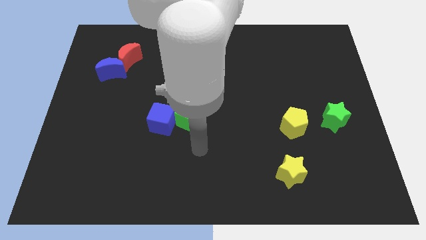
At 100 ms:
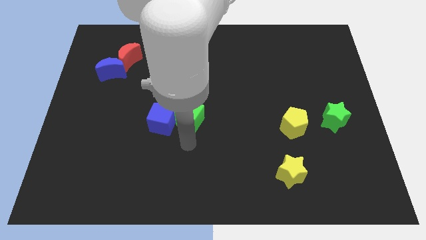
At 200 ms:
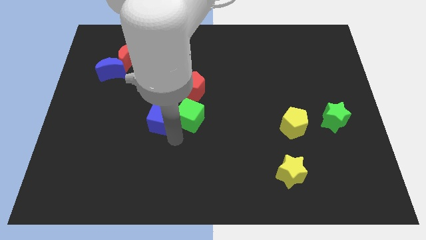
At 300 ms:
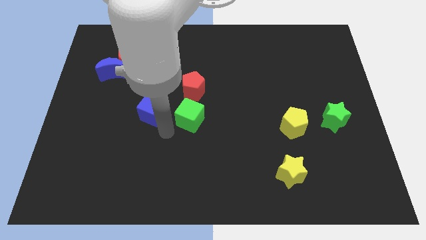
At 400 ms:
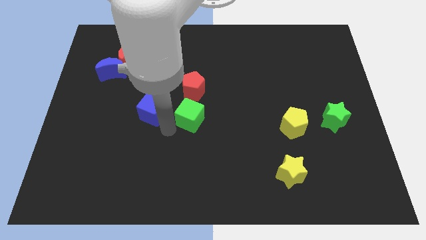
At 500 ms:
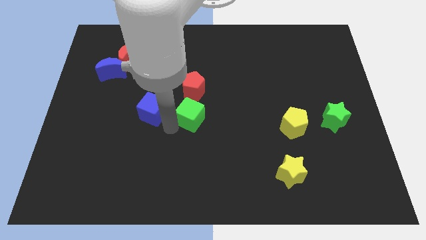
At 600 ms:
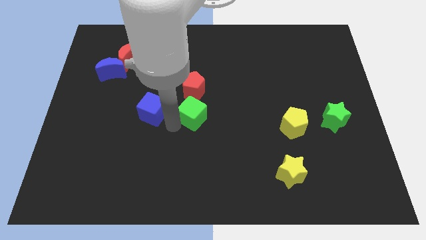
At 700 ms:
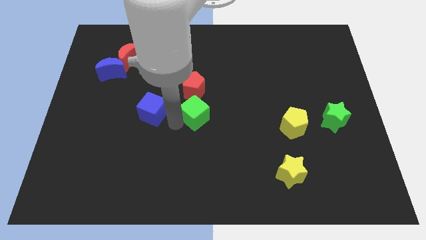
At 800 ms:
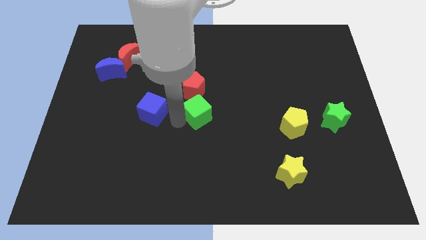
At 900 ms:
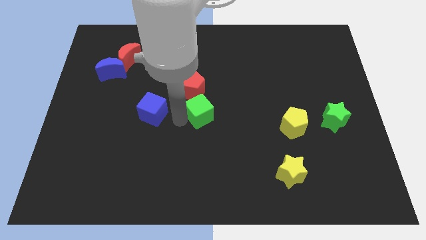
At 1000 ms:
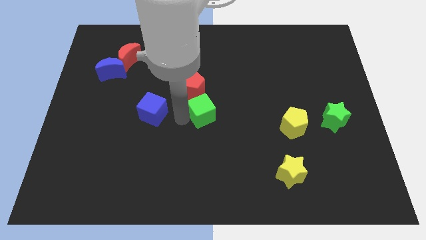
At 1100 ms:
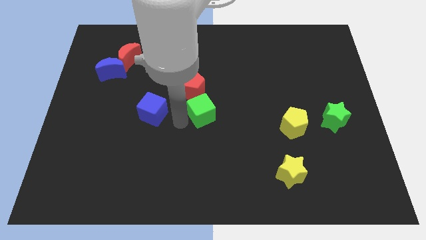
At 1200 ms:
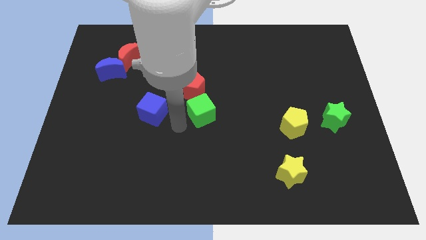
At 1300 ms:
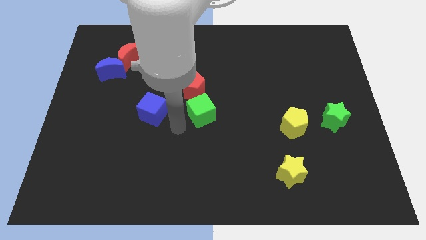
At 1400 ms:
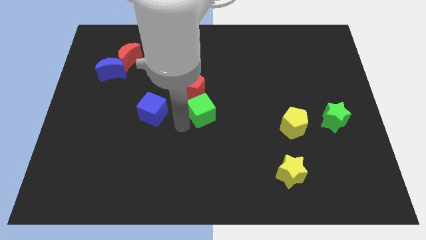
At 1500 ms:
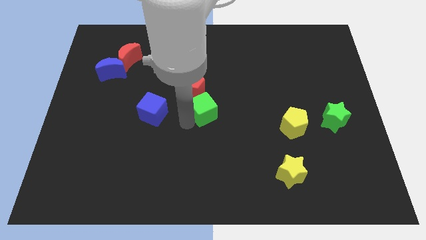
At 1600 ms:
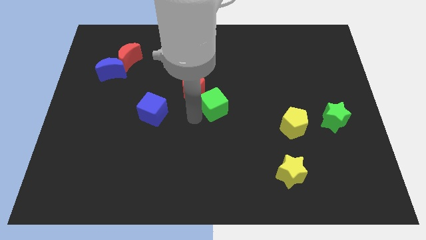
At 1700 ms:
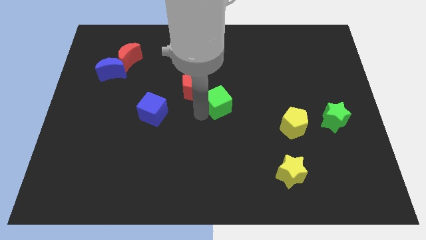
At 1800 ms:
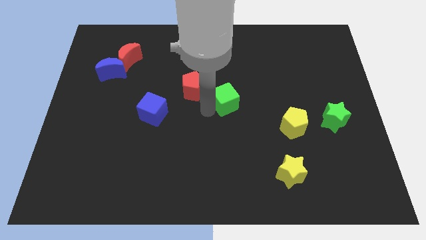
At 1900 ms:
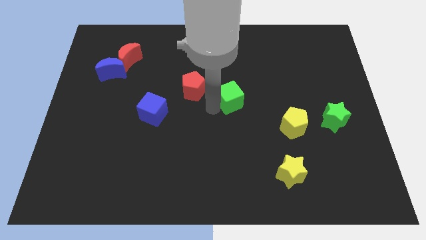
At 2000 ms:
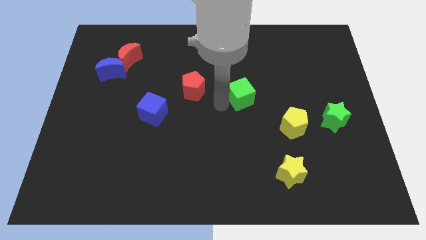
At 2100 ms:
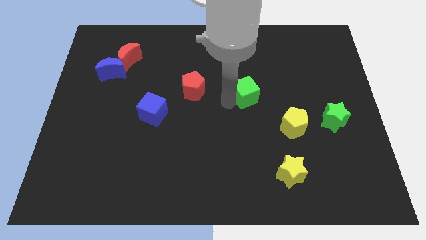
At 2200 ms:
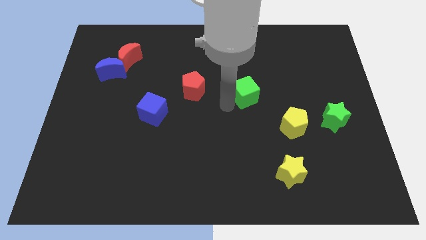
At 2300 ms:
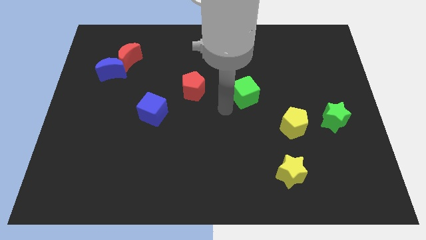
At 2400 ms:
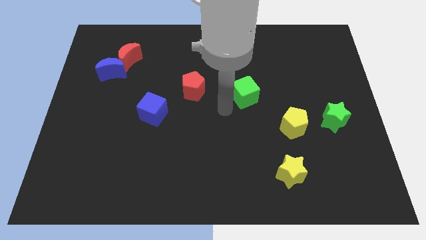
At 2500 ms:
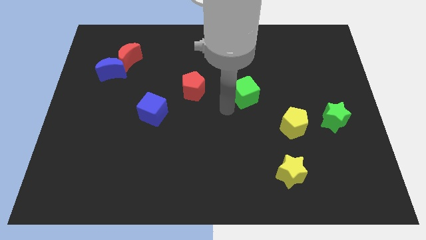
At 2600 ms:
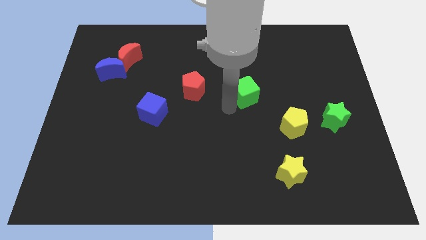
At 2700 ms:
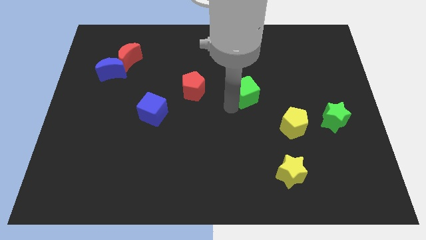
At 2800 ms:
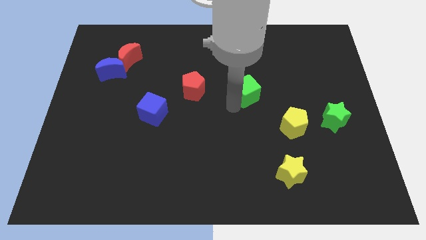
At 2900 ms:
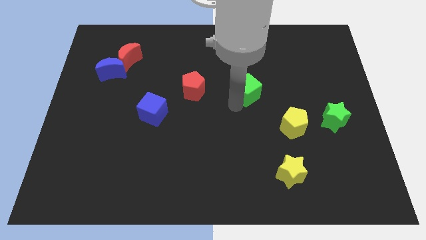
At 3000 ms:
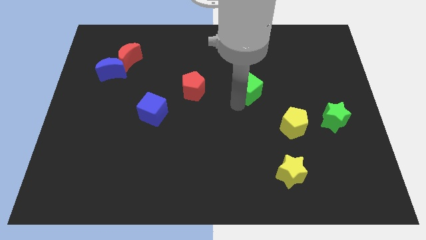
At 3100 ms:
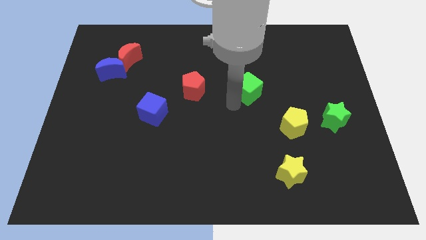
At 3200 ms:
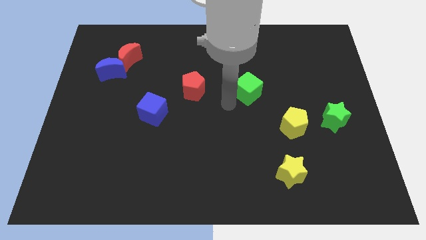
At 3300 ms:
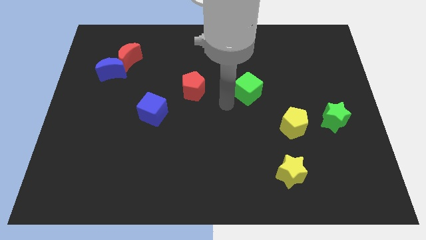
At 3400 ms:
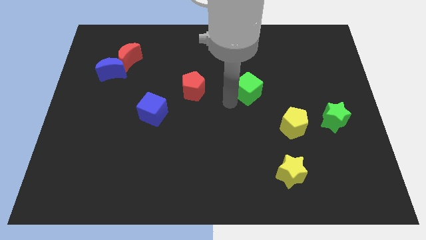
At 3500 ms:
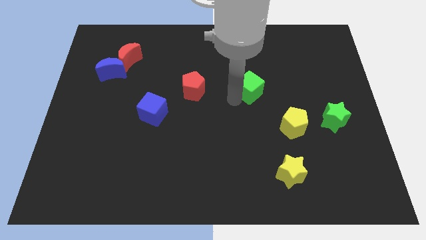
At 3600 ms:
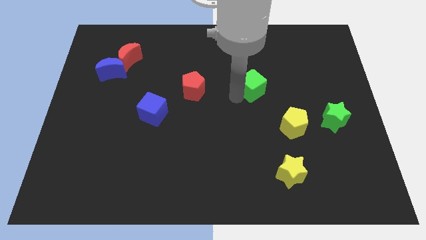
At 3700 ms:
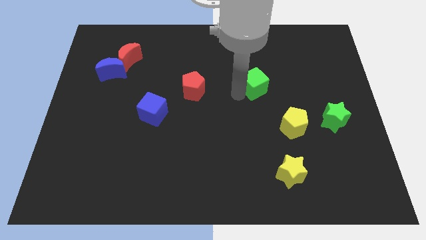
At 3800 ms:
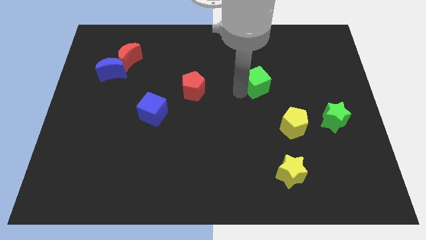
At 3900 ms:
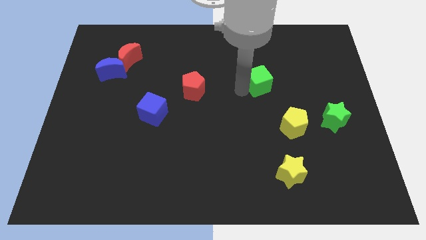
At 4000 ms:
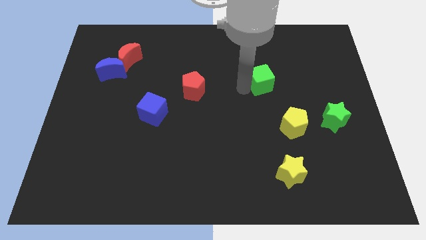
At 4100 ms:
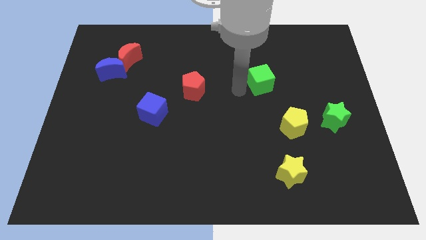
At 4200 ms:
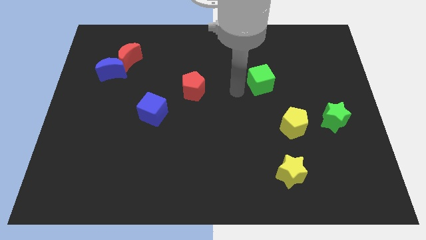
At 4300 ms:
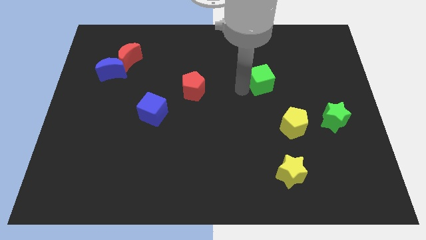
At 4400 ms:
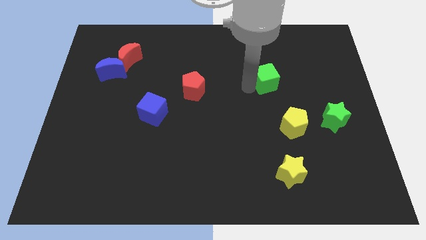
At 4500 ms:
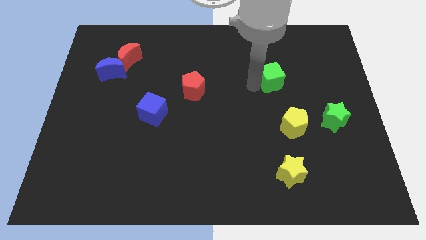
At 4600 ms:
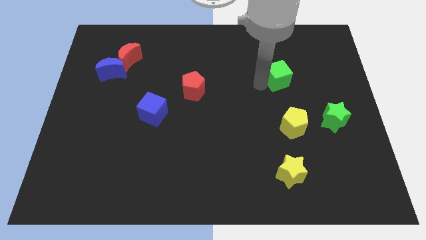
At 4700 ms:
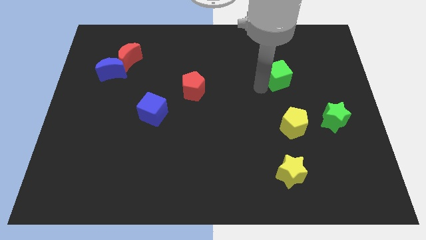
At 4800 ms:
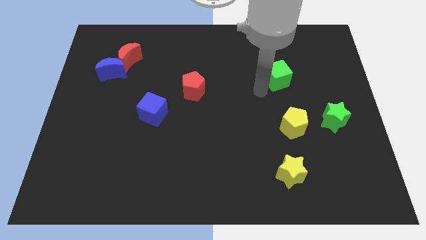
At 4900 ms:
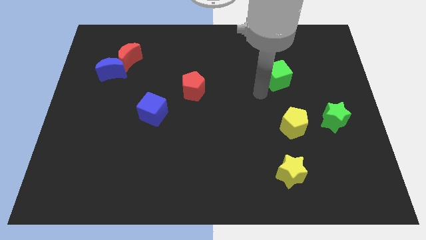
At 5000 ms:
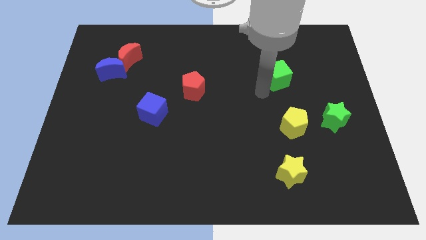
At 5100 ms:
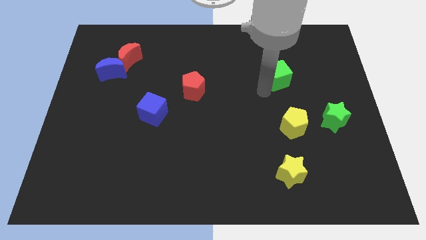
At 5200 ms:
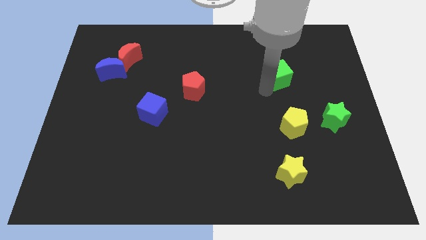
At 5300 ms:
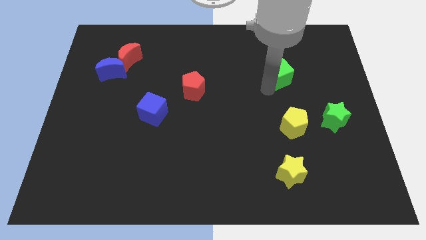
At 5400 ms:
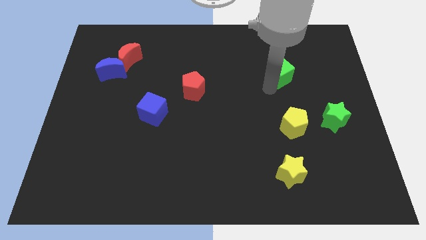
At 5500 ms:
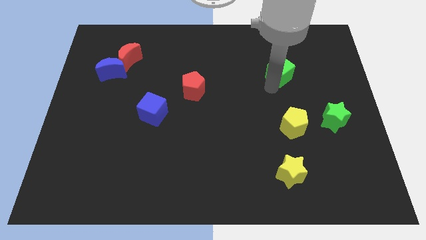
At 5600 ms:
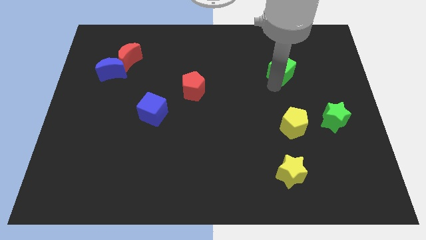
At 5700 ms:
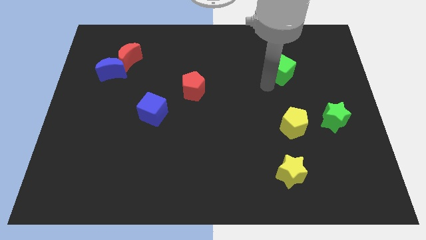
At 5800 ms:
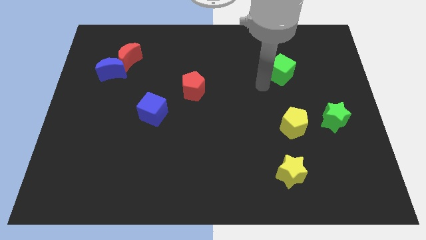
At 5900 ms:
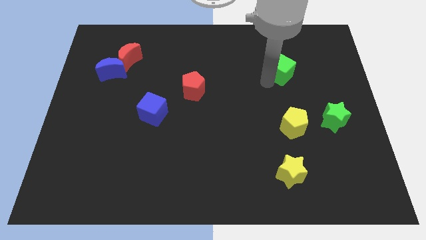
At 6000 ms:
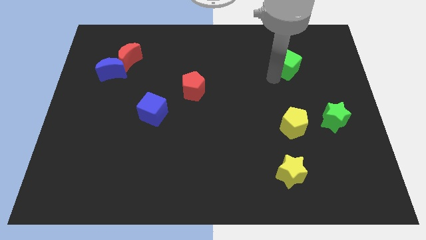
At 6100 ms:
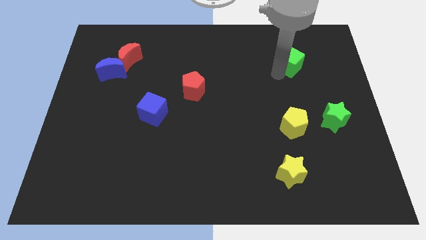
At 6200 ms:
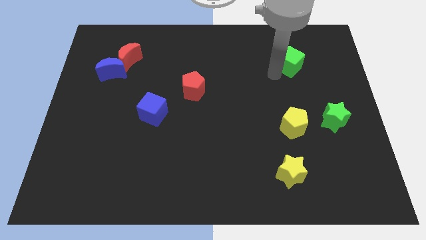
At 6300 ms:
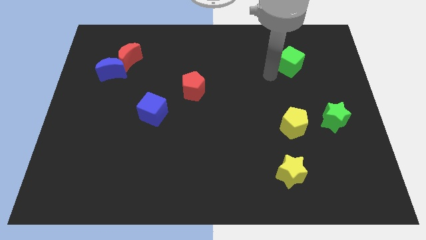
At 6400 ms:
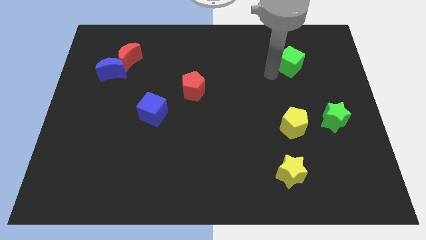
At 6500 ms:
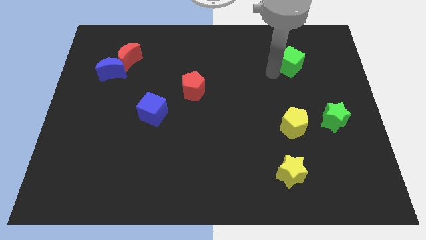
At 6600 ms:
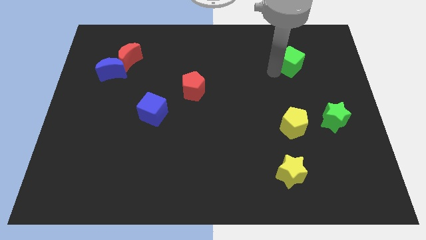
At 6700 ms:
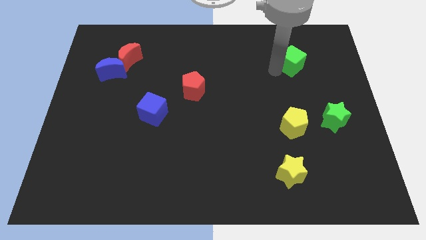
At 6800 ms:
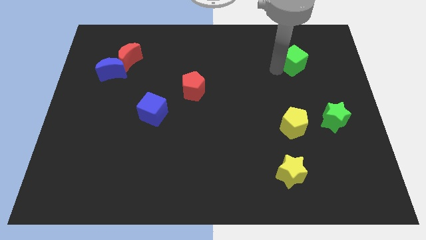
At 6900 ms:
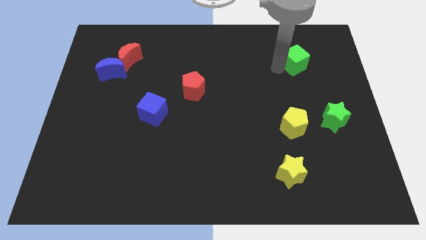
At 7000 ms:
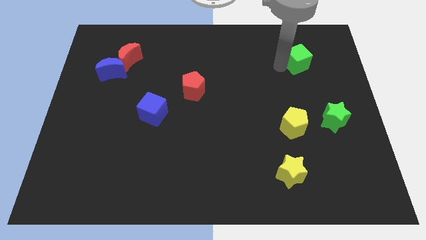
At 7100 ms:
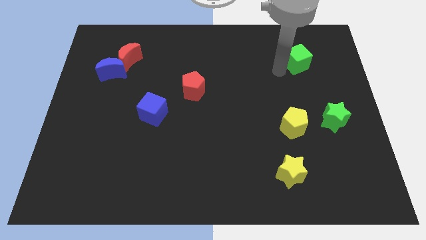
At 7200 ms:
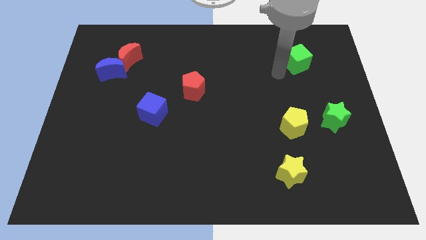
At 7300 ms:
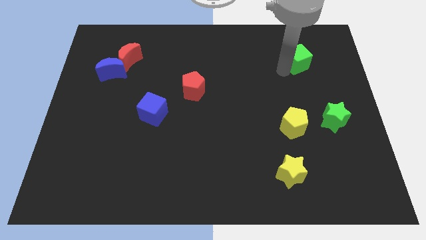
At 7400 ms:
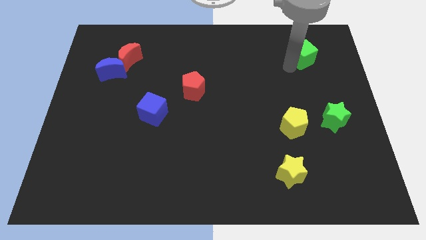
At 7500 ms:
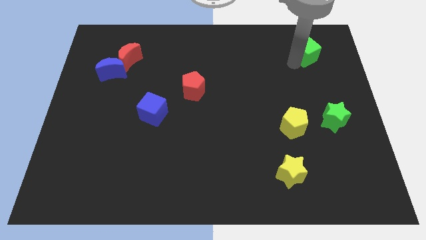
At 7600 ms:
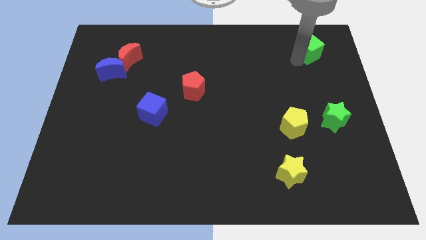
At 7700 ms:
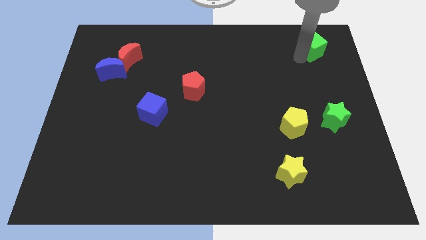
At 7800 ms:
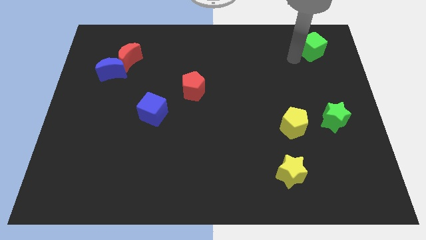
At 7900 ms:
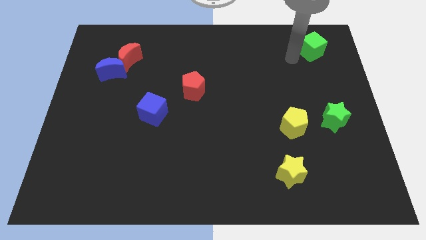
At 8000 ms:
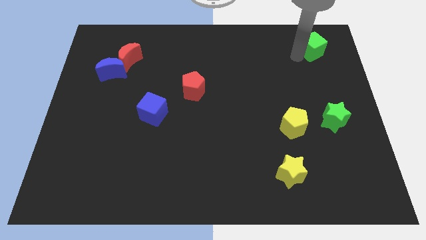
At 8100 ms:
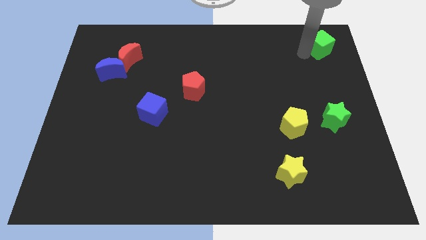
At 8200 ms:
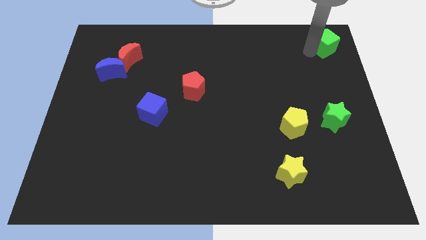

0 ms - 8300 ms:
move the green cube to the top right
